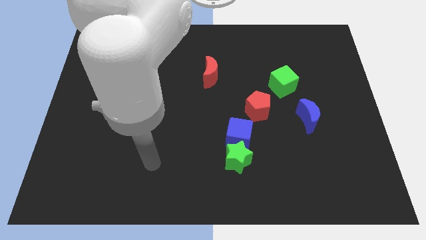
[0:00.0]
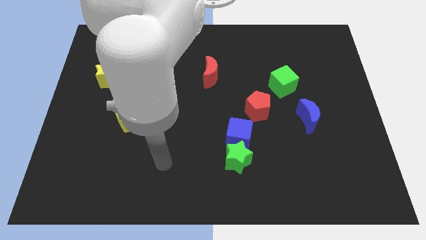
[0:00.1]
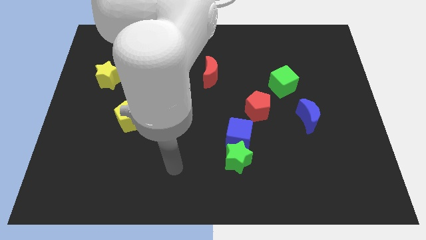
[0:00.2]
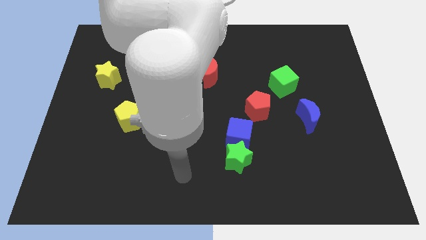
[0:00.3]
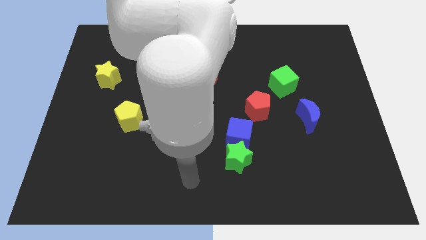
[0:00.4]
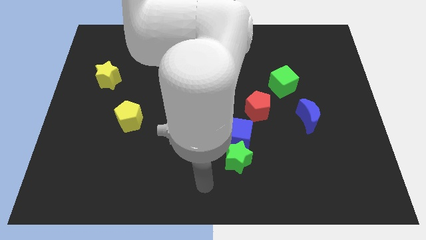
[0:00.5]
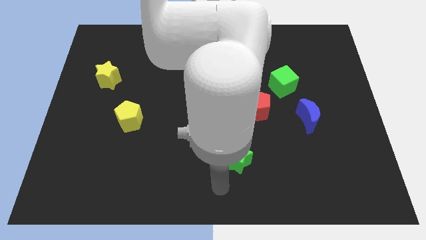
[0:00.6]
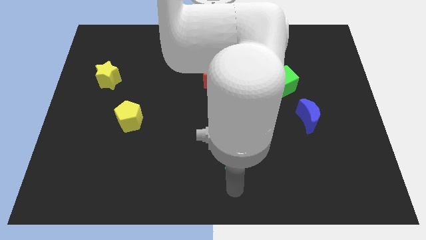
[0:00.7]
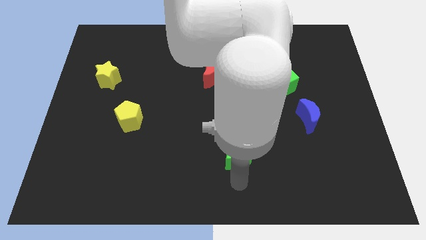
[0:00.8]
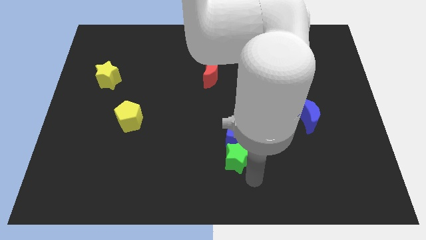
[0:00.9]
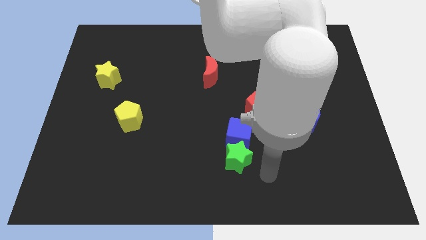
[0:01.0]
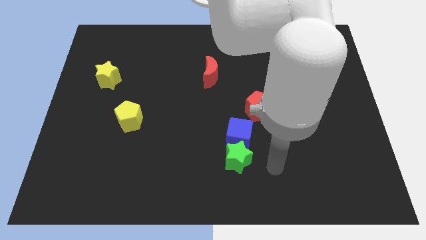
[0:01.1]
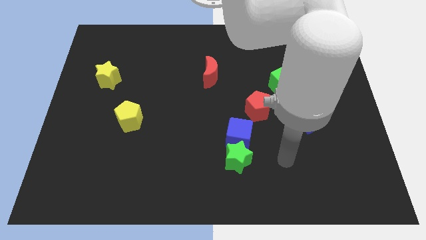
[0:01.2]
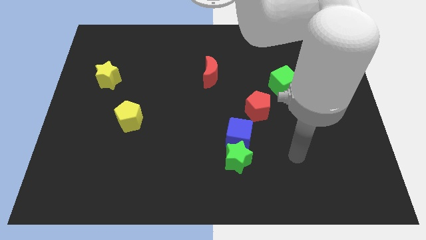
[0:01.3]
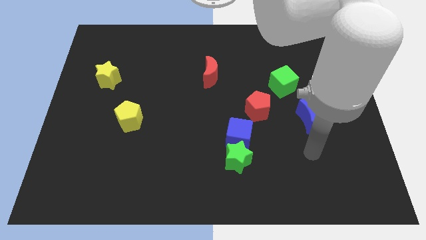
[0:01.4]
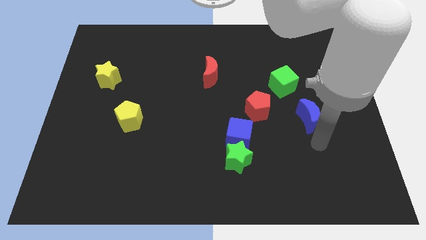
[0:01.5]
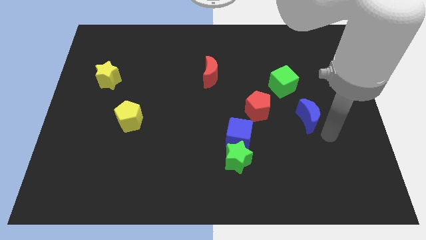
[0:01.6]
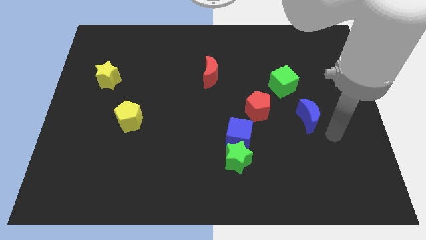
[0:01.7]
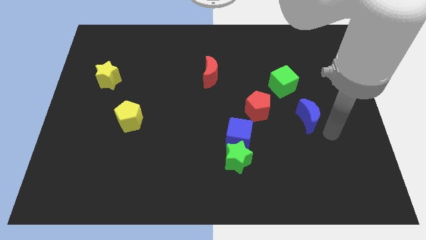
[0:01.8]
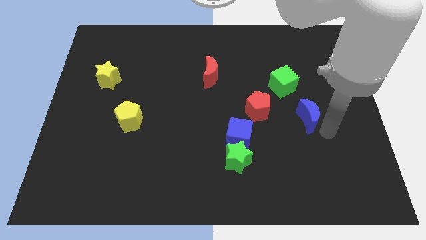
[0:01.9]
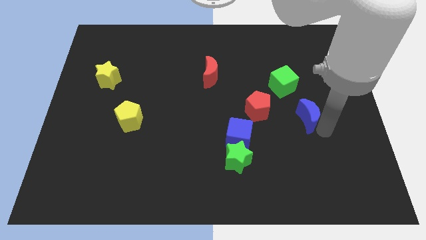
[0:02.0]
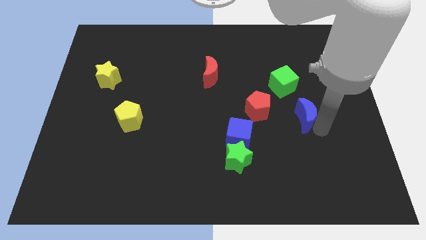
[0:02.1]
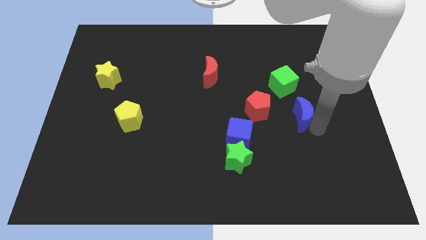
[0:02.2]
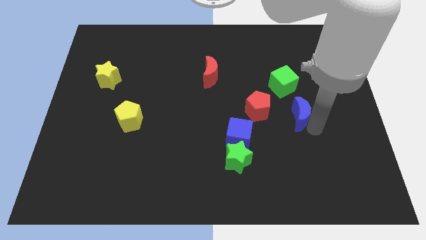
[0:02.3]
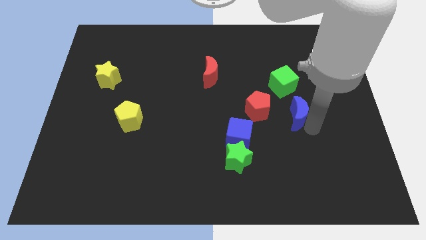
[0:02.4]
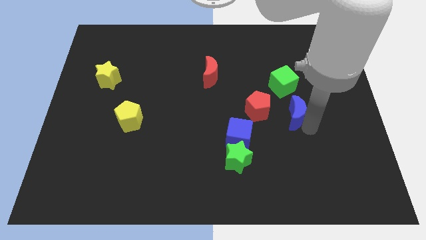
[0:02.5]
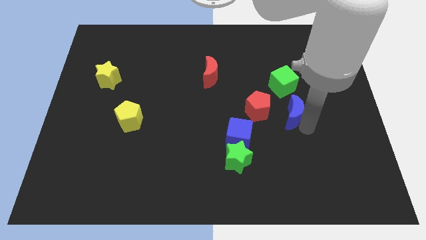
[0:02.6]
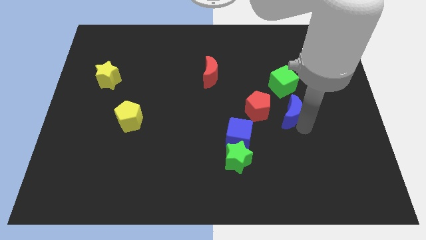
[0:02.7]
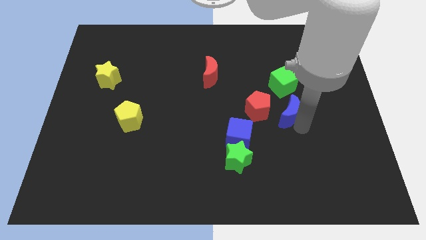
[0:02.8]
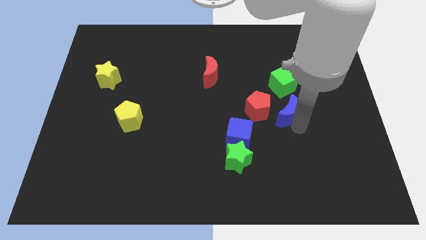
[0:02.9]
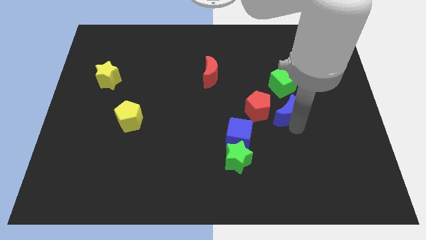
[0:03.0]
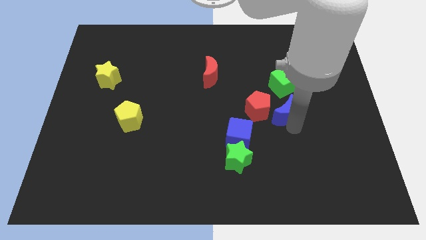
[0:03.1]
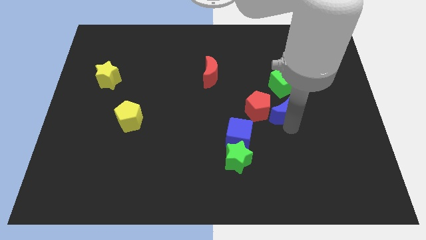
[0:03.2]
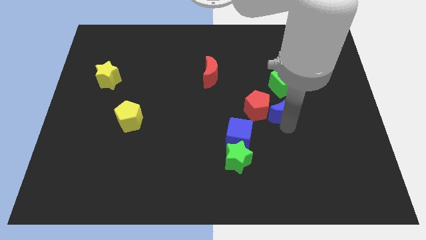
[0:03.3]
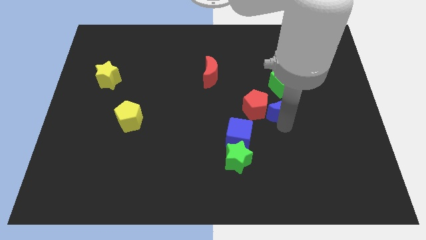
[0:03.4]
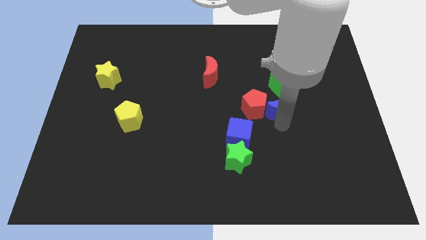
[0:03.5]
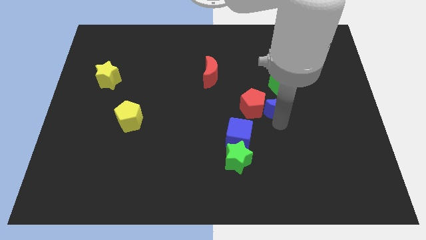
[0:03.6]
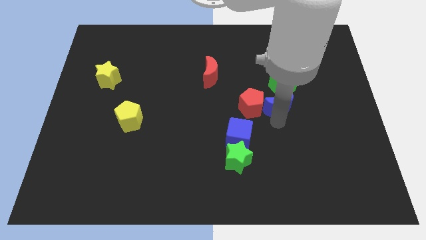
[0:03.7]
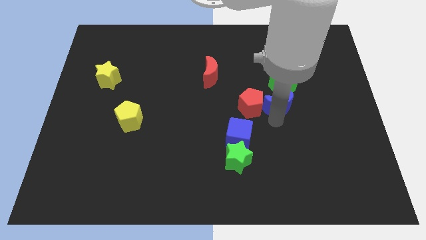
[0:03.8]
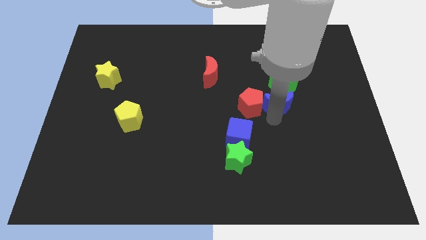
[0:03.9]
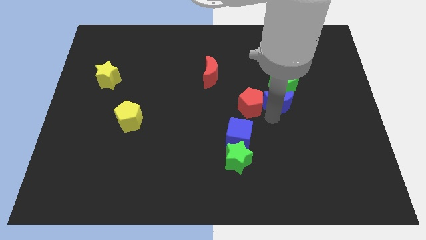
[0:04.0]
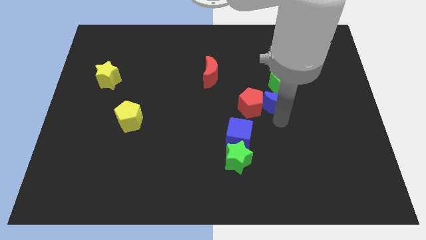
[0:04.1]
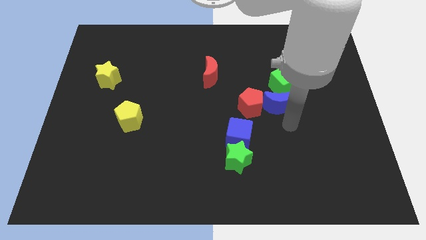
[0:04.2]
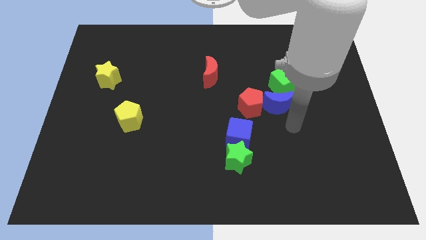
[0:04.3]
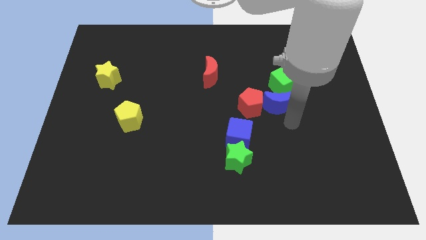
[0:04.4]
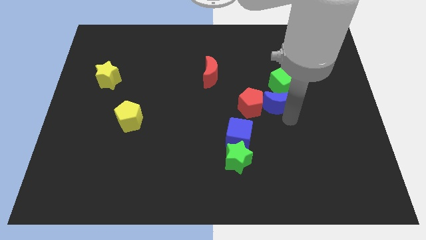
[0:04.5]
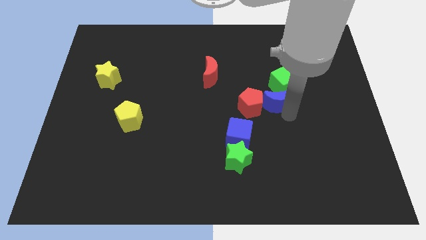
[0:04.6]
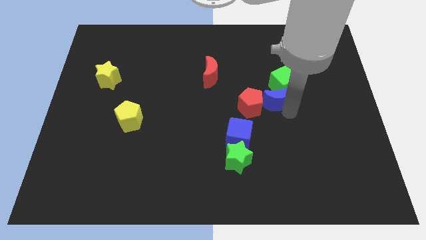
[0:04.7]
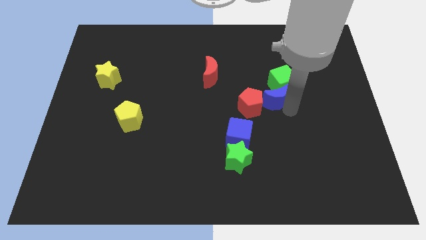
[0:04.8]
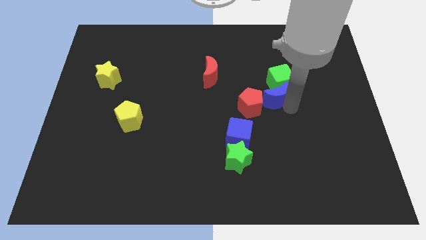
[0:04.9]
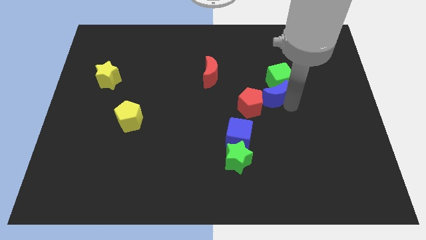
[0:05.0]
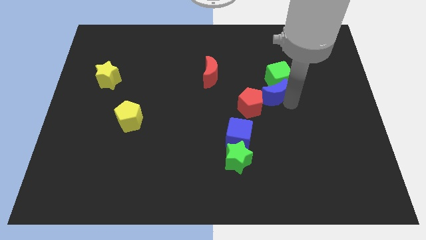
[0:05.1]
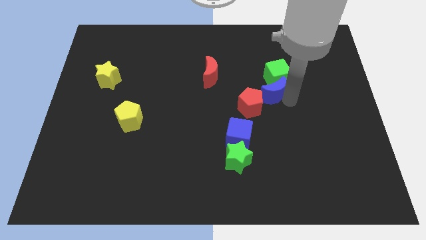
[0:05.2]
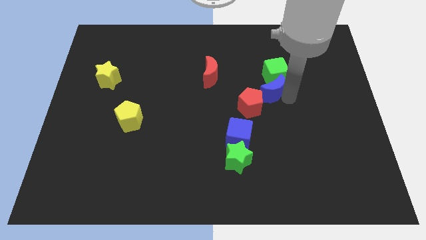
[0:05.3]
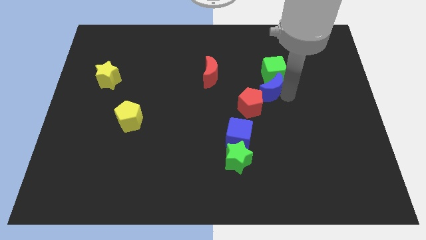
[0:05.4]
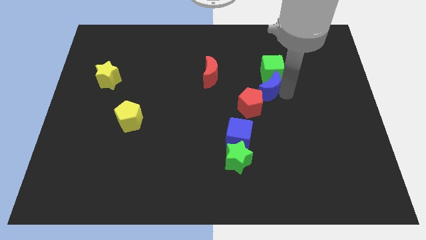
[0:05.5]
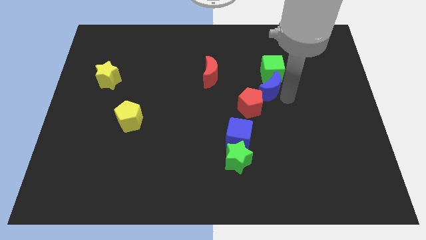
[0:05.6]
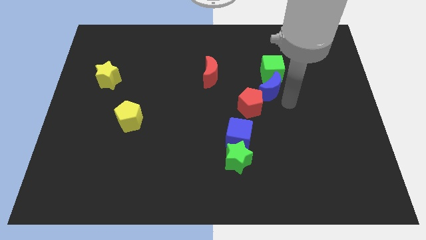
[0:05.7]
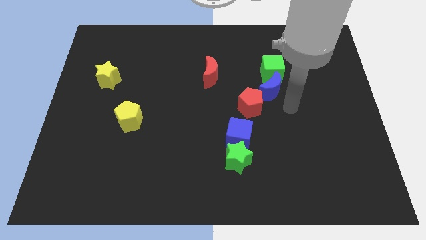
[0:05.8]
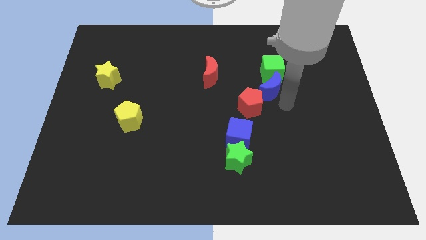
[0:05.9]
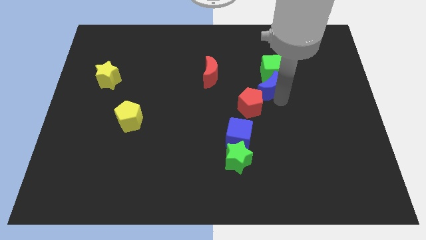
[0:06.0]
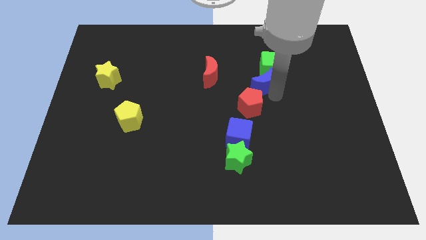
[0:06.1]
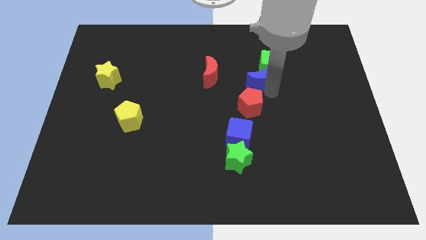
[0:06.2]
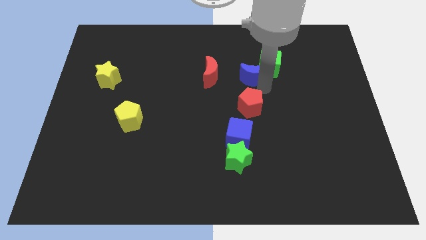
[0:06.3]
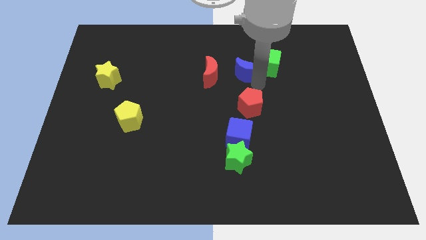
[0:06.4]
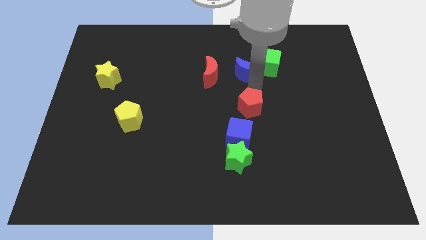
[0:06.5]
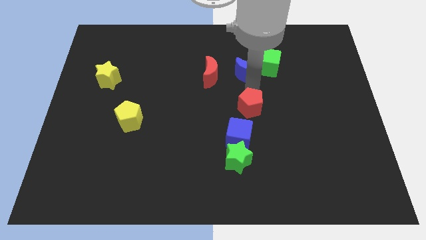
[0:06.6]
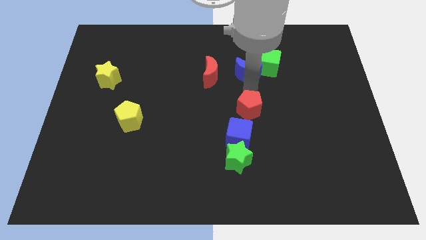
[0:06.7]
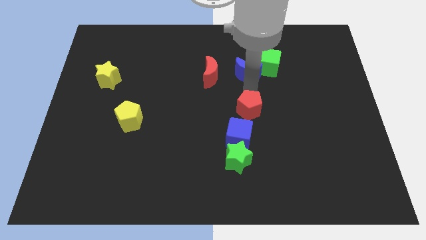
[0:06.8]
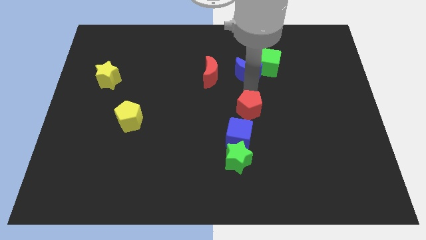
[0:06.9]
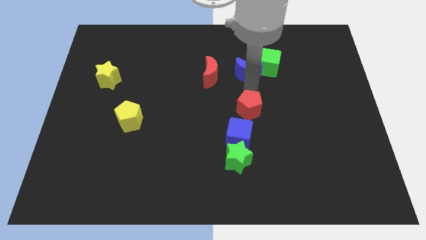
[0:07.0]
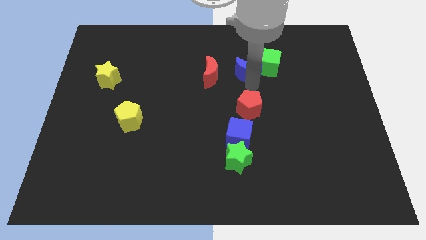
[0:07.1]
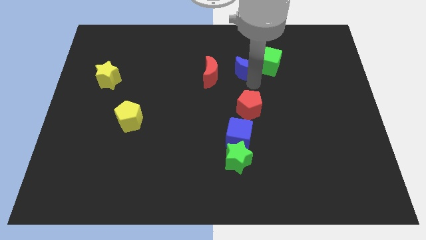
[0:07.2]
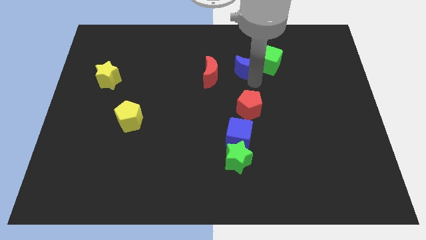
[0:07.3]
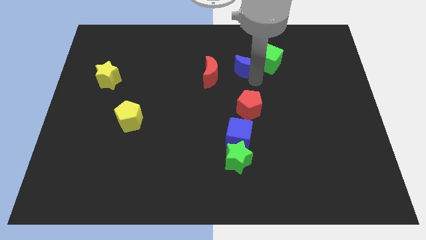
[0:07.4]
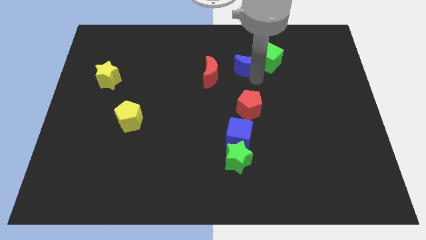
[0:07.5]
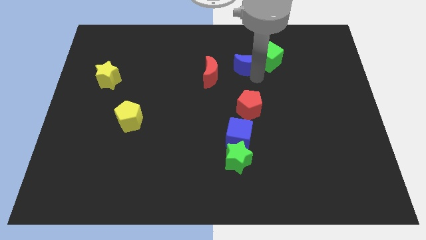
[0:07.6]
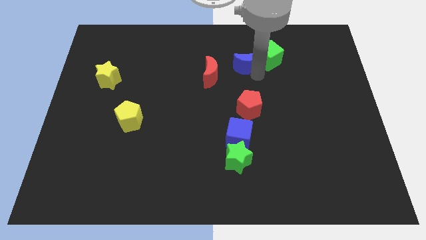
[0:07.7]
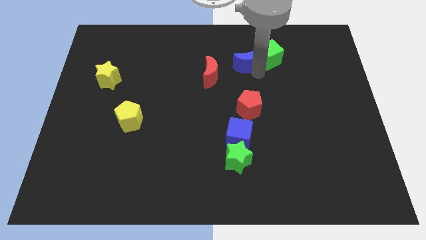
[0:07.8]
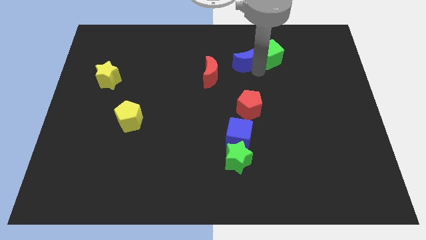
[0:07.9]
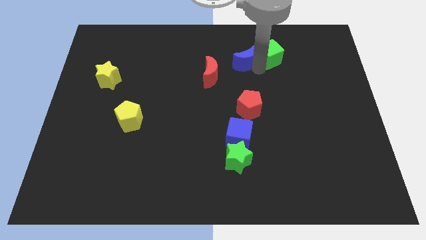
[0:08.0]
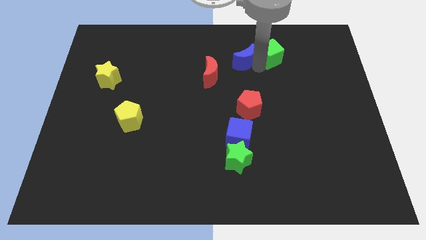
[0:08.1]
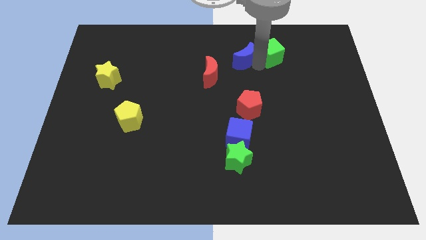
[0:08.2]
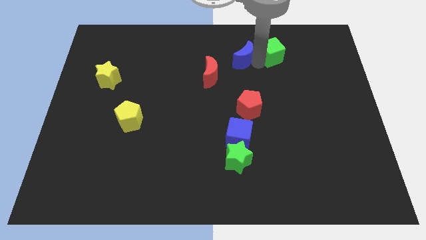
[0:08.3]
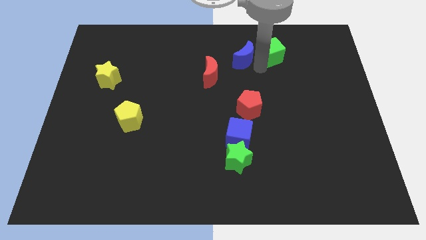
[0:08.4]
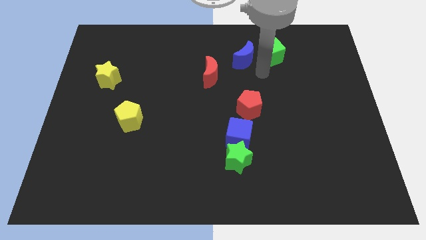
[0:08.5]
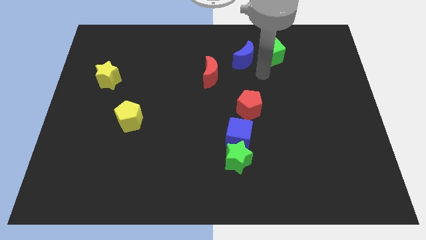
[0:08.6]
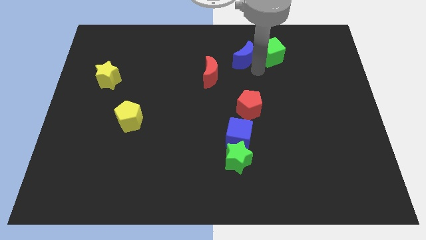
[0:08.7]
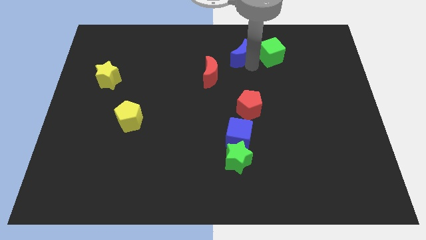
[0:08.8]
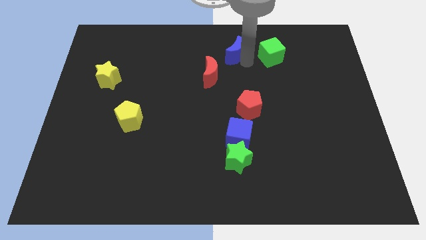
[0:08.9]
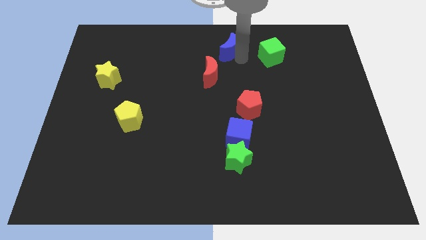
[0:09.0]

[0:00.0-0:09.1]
move the blue moon to the towards your base
